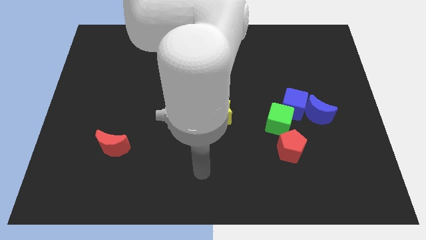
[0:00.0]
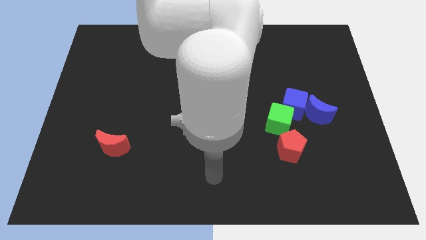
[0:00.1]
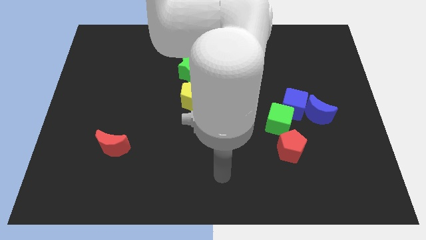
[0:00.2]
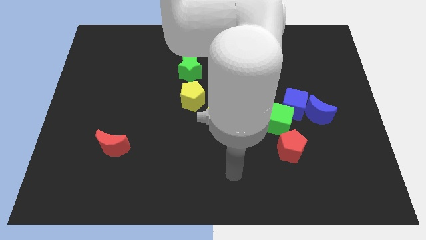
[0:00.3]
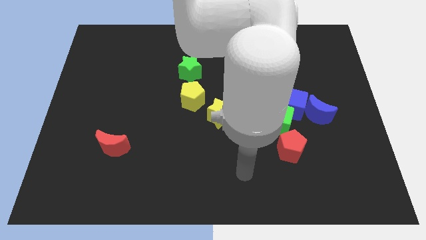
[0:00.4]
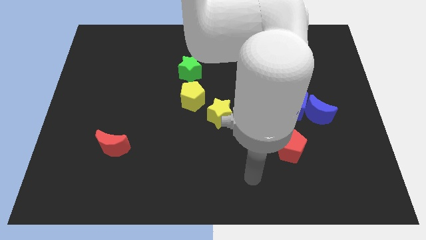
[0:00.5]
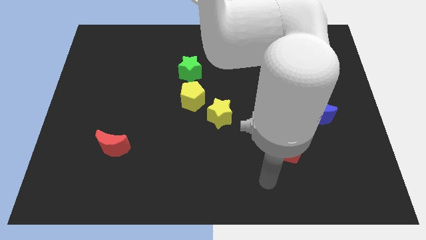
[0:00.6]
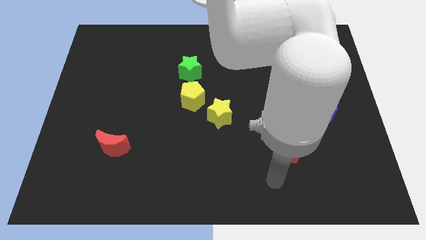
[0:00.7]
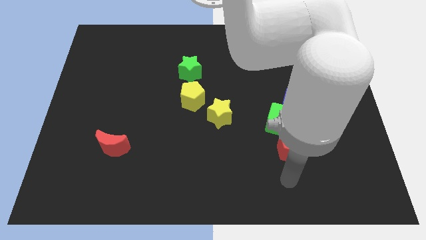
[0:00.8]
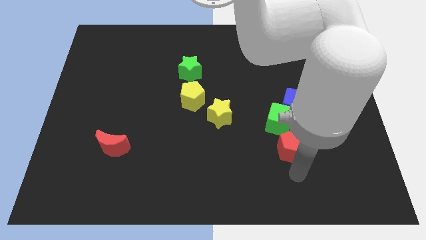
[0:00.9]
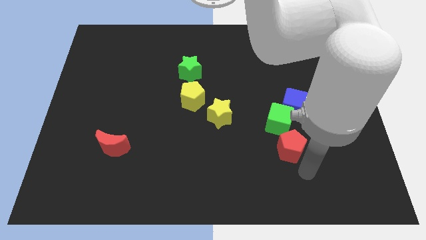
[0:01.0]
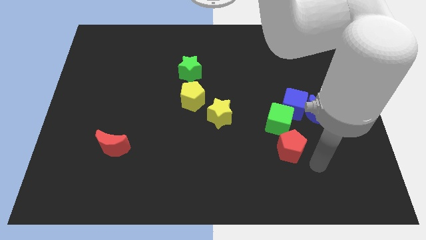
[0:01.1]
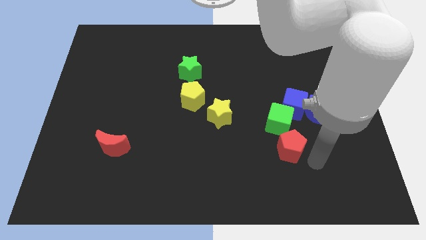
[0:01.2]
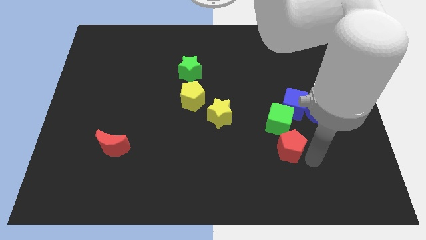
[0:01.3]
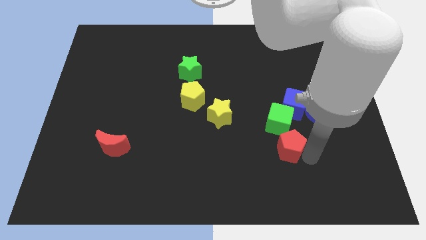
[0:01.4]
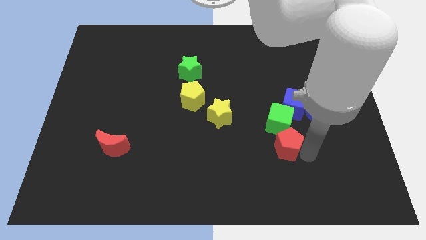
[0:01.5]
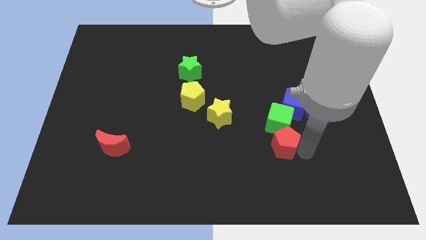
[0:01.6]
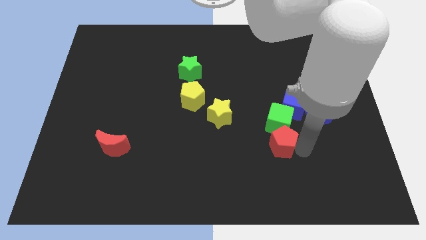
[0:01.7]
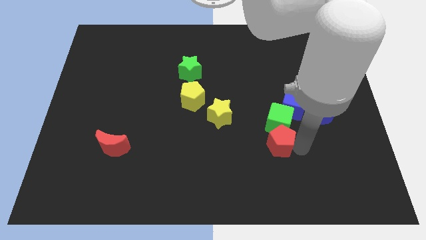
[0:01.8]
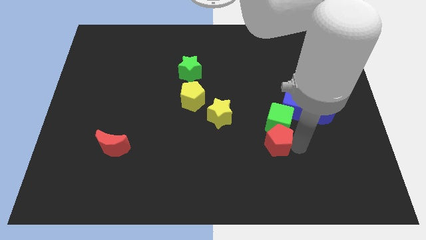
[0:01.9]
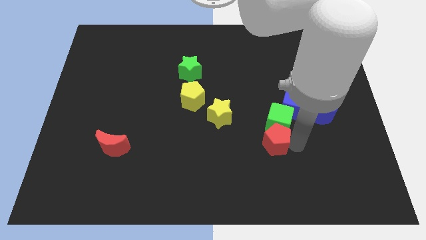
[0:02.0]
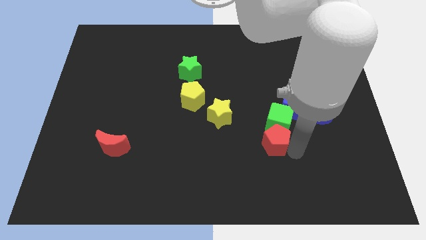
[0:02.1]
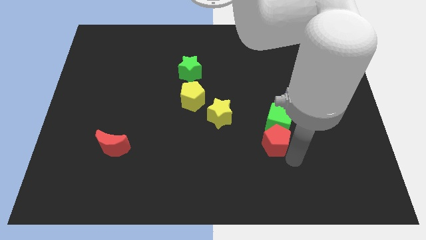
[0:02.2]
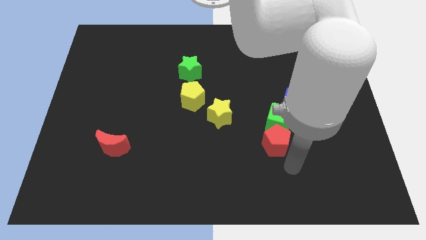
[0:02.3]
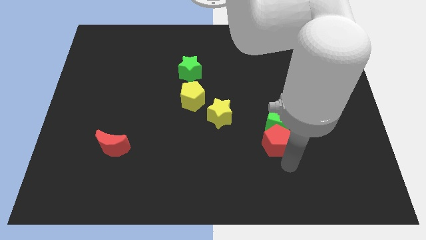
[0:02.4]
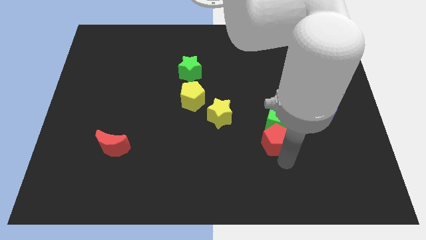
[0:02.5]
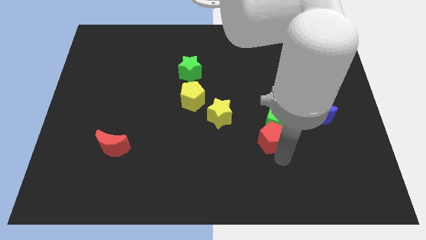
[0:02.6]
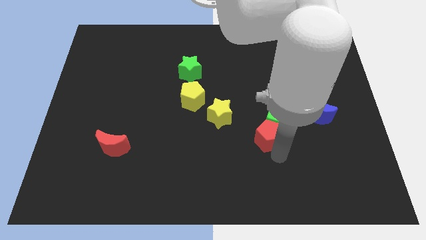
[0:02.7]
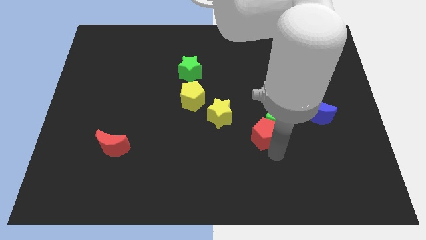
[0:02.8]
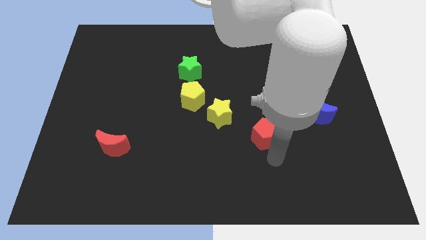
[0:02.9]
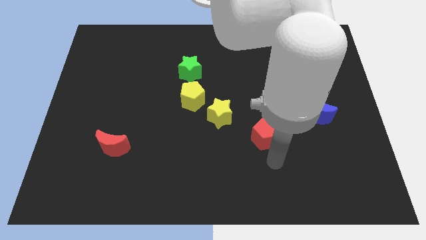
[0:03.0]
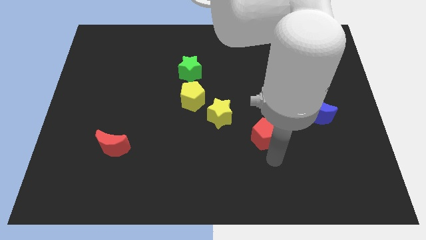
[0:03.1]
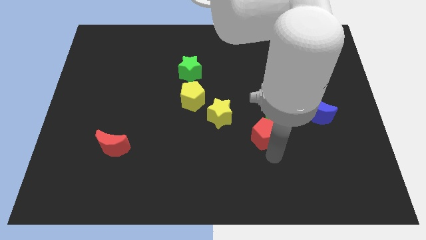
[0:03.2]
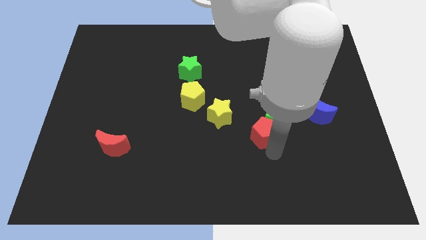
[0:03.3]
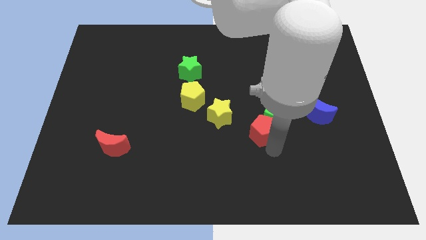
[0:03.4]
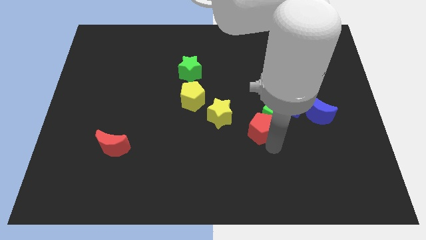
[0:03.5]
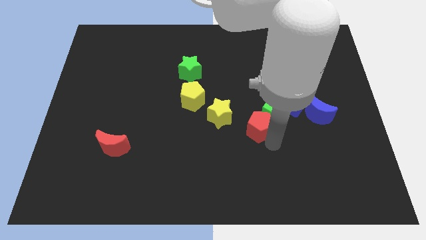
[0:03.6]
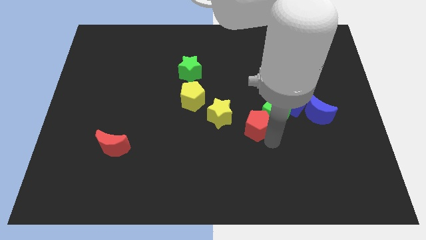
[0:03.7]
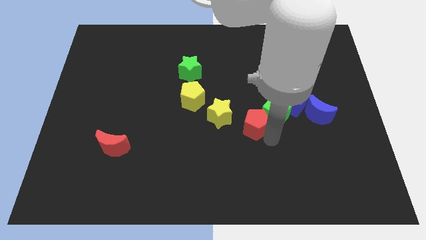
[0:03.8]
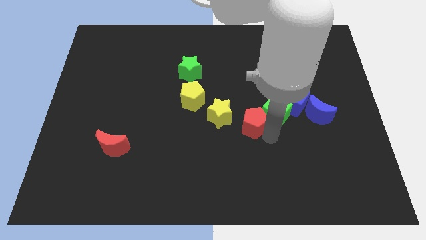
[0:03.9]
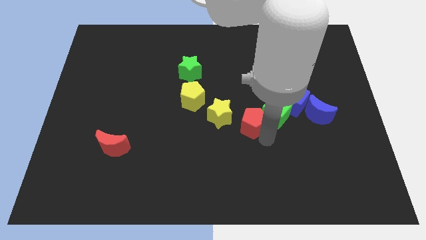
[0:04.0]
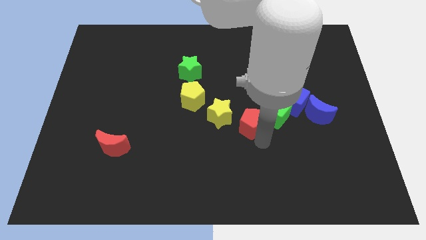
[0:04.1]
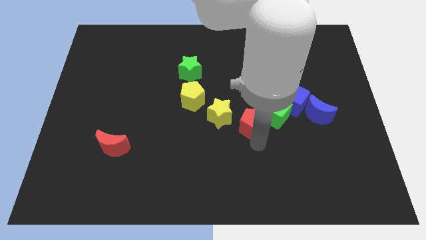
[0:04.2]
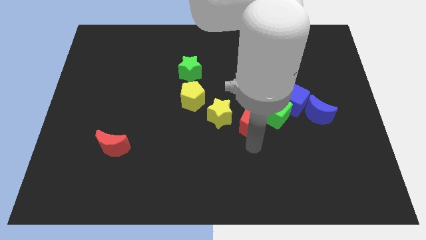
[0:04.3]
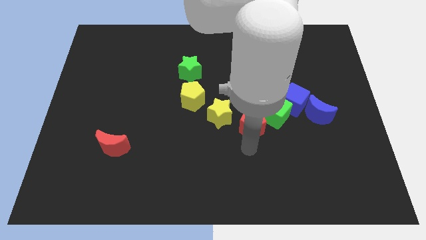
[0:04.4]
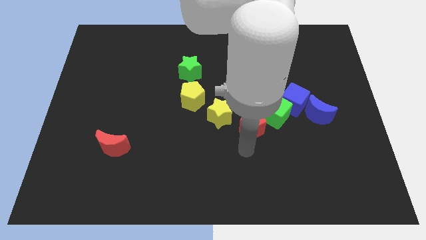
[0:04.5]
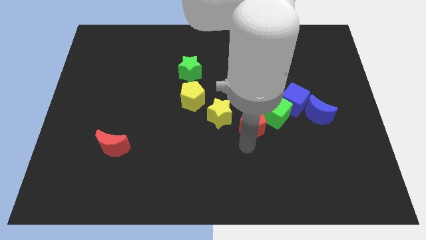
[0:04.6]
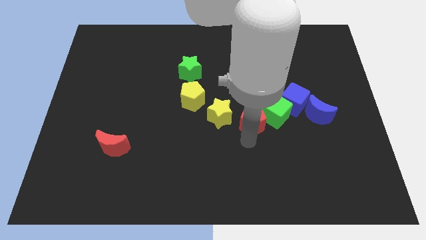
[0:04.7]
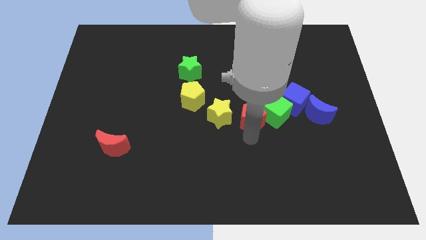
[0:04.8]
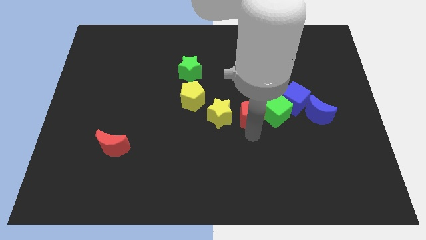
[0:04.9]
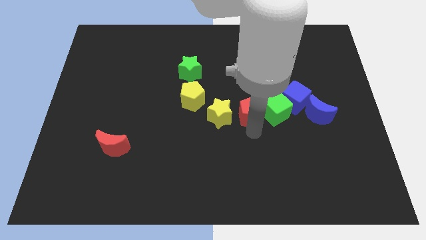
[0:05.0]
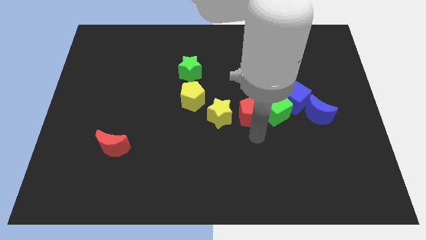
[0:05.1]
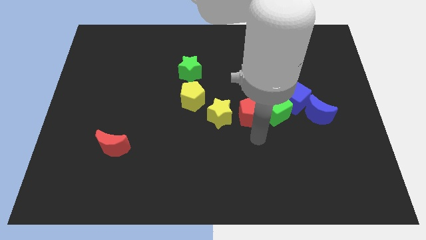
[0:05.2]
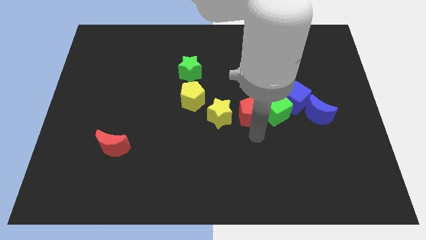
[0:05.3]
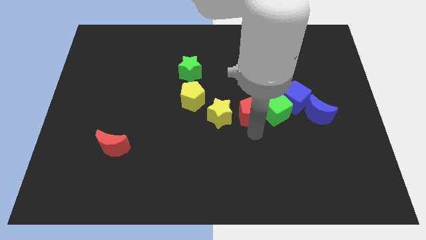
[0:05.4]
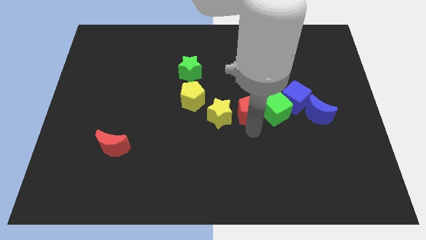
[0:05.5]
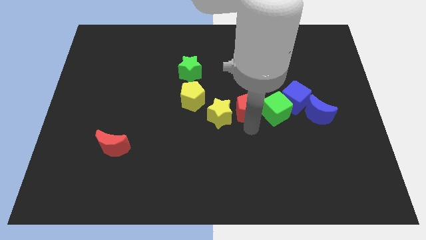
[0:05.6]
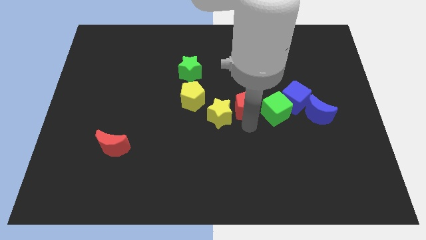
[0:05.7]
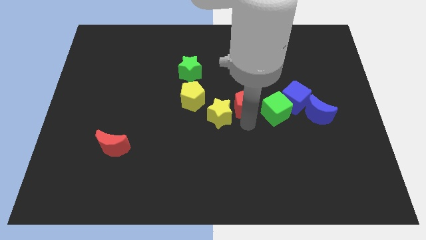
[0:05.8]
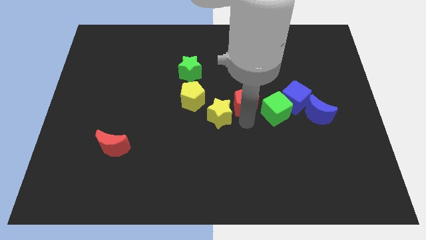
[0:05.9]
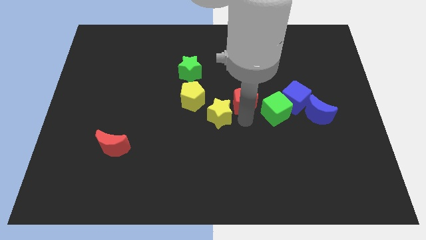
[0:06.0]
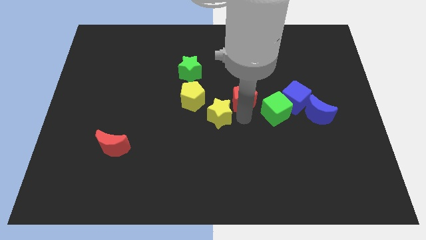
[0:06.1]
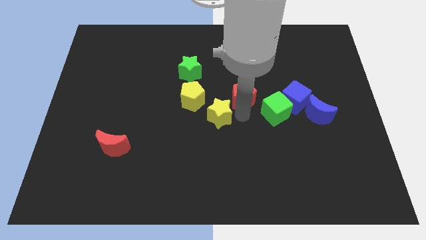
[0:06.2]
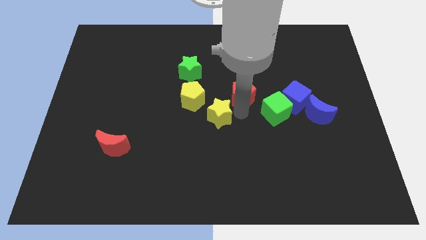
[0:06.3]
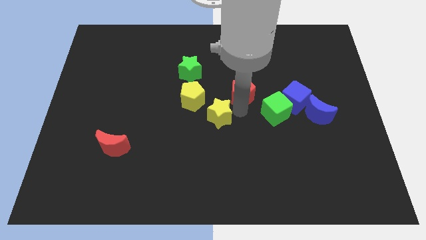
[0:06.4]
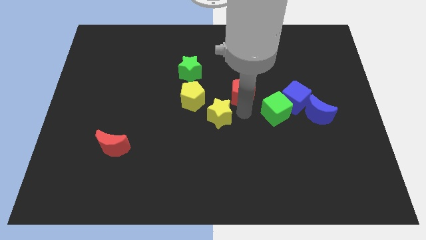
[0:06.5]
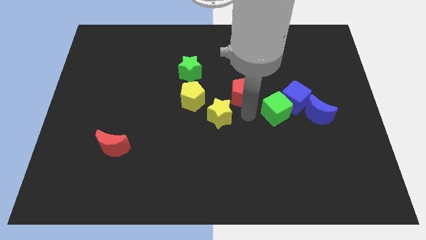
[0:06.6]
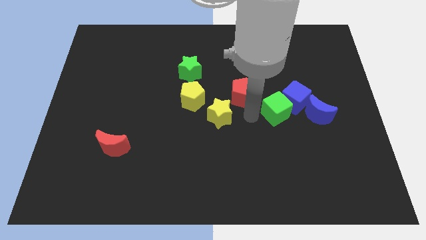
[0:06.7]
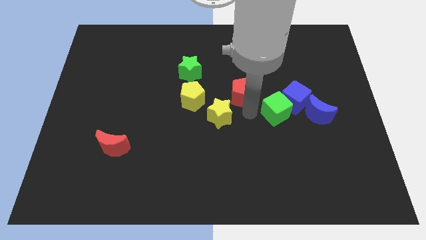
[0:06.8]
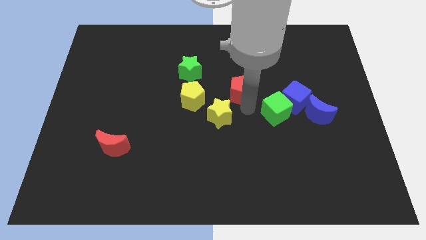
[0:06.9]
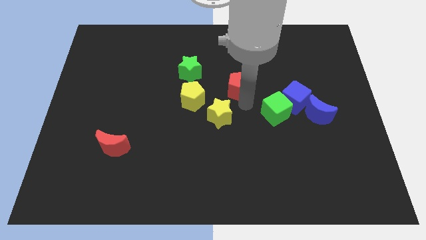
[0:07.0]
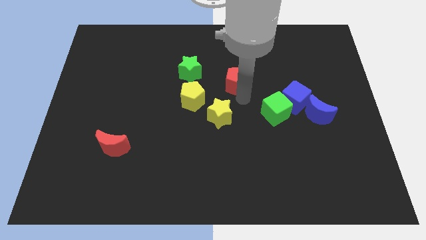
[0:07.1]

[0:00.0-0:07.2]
push the red pentagon just right of the green star

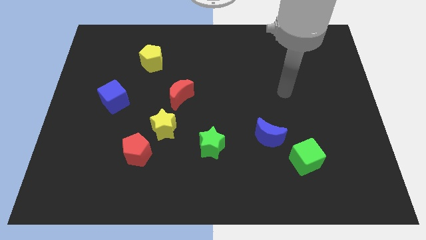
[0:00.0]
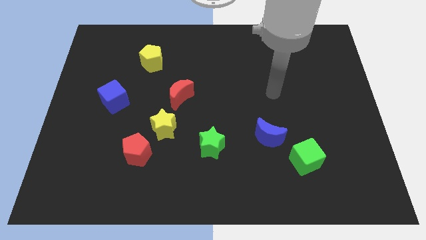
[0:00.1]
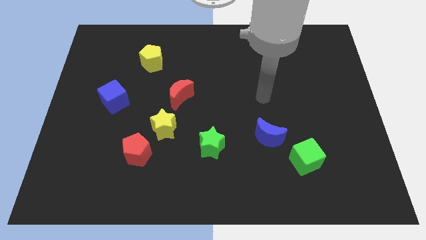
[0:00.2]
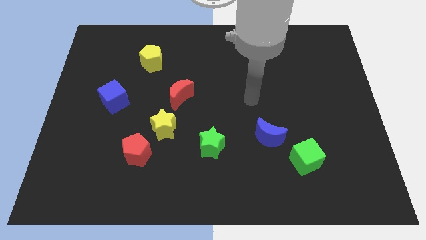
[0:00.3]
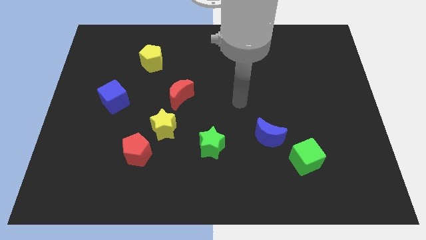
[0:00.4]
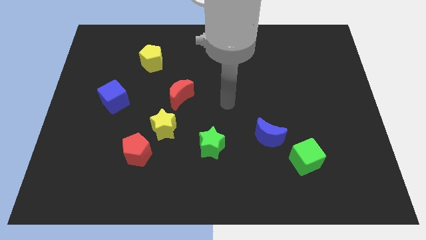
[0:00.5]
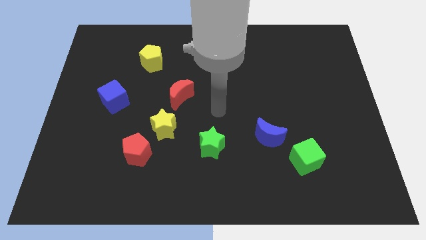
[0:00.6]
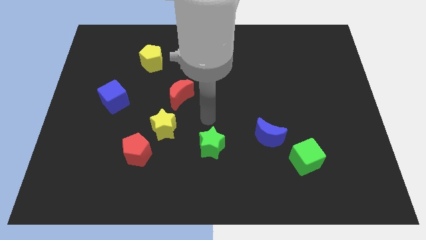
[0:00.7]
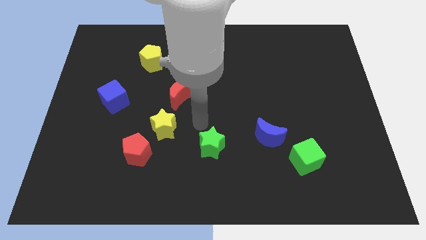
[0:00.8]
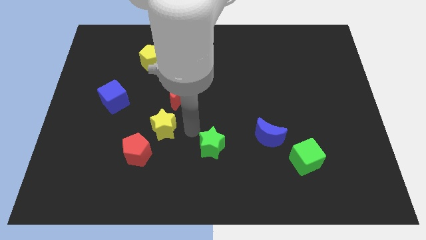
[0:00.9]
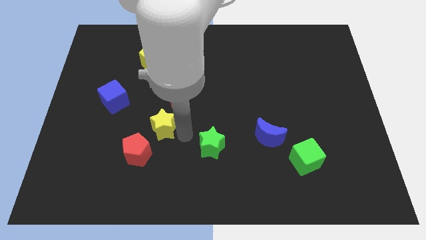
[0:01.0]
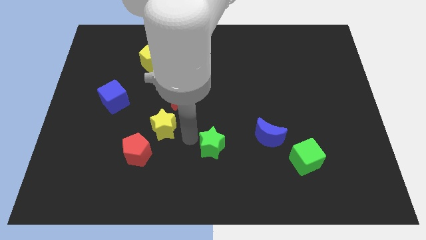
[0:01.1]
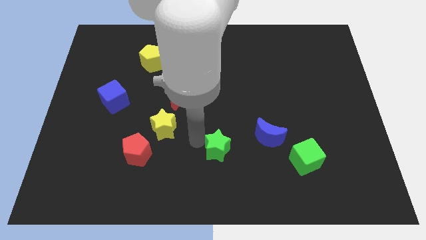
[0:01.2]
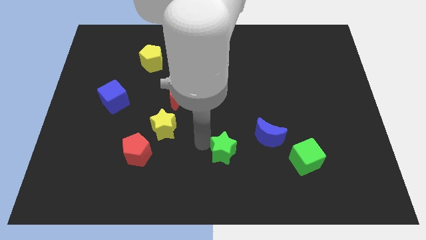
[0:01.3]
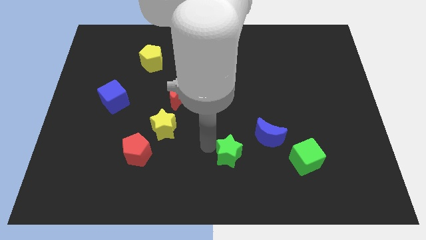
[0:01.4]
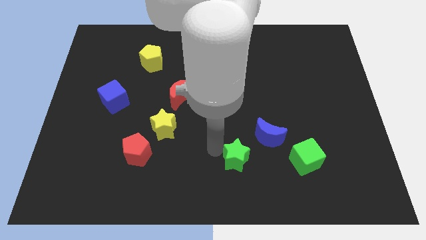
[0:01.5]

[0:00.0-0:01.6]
move the green star just left of the green cube
